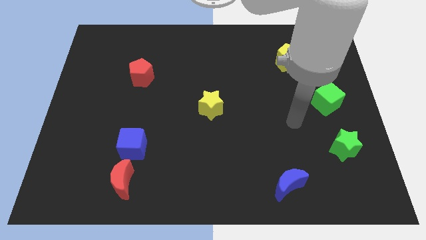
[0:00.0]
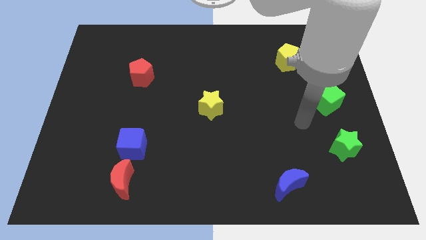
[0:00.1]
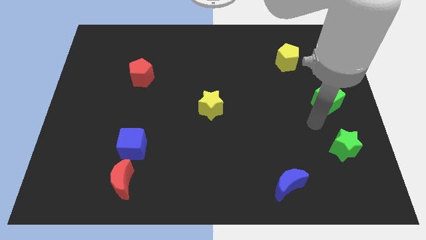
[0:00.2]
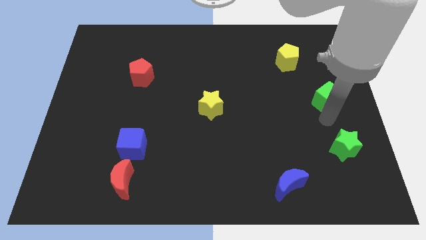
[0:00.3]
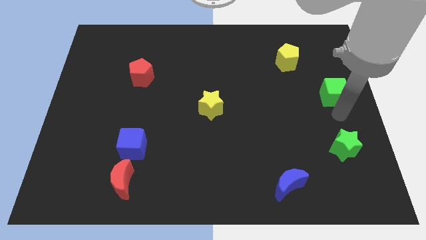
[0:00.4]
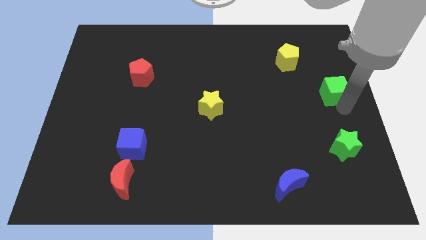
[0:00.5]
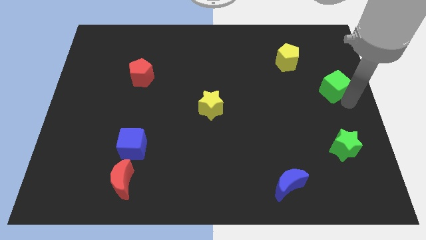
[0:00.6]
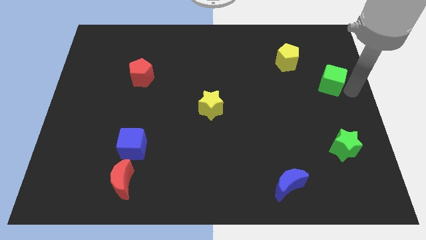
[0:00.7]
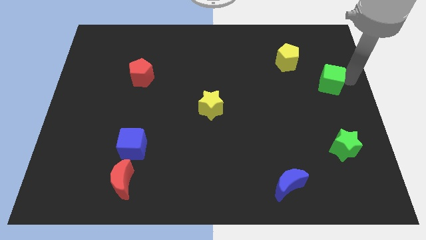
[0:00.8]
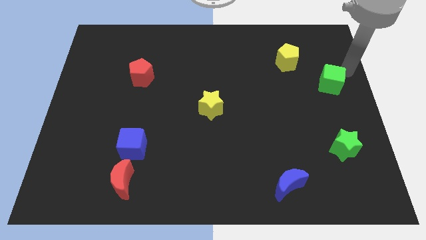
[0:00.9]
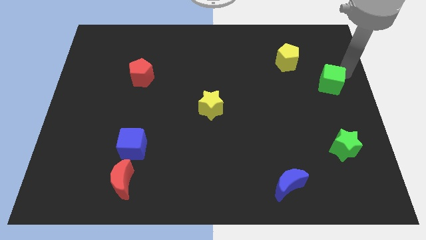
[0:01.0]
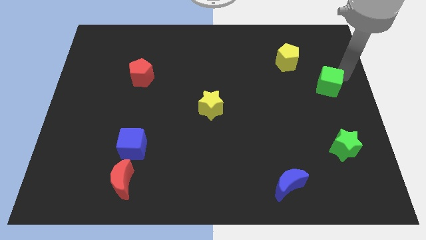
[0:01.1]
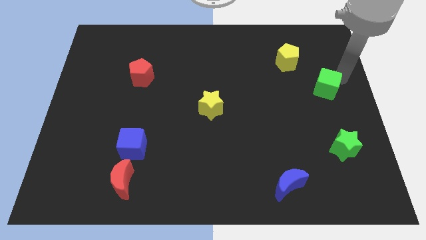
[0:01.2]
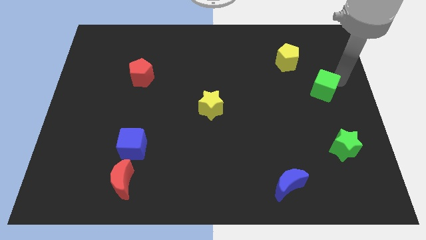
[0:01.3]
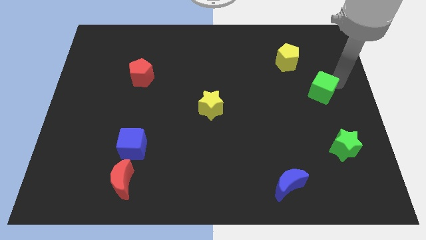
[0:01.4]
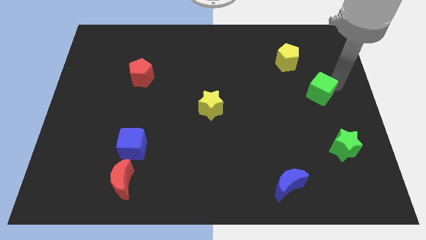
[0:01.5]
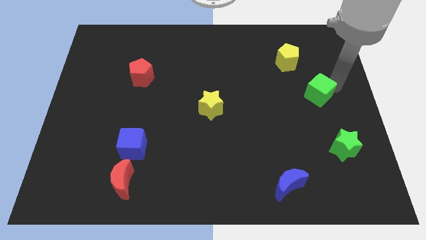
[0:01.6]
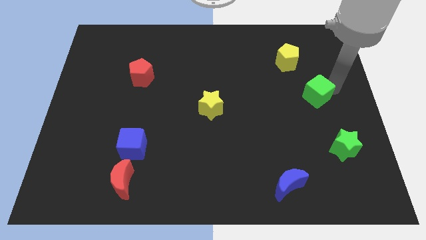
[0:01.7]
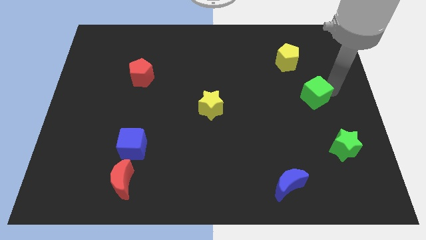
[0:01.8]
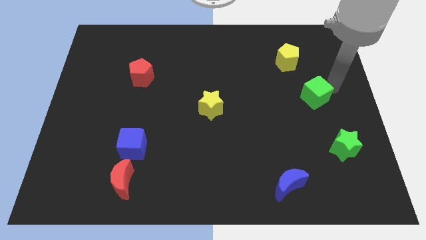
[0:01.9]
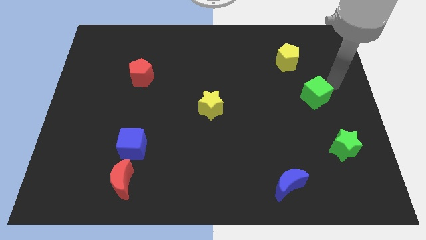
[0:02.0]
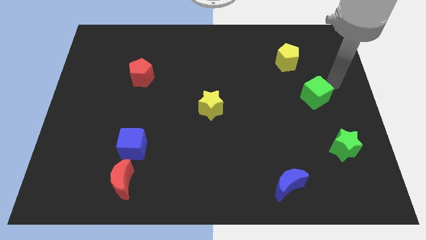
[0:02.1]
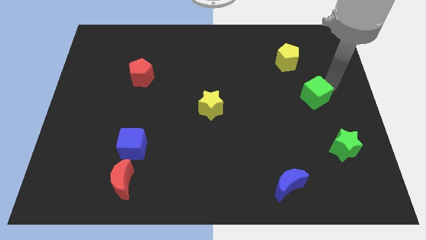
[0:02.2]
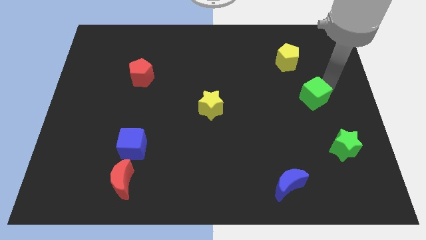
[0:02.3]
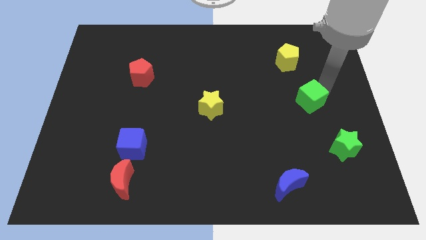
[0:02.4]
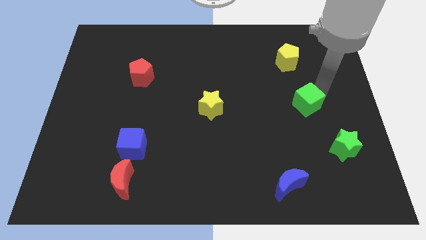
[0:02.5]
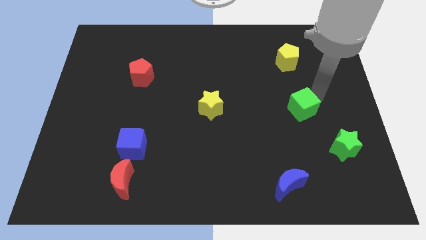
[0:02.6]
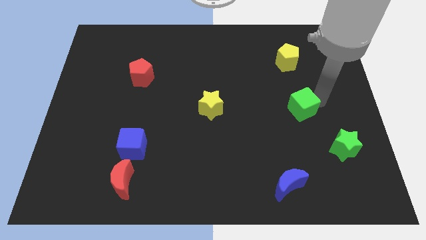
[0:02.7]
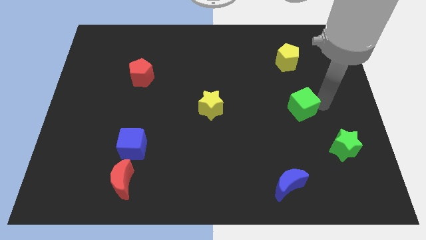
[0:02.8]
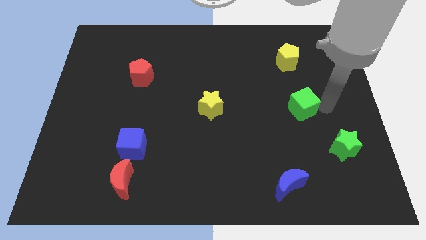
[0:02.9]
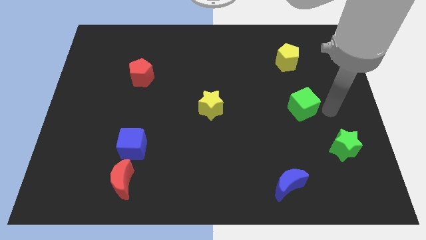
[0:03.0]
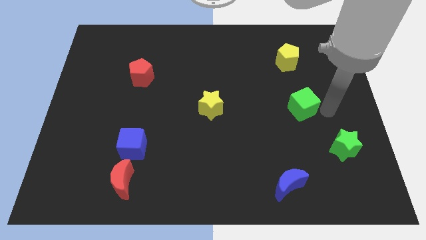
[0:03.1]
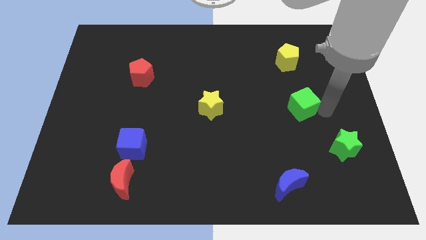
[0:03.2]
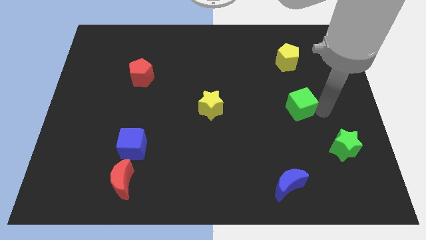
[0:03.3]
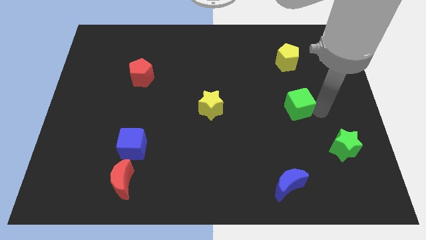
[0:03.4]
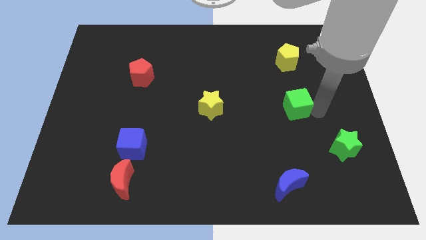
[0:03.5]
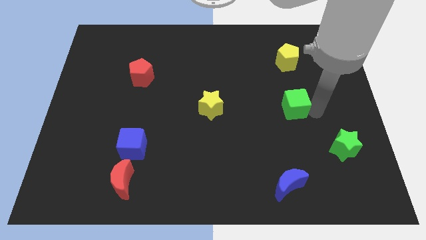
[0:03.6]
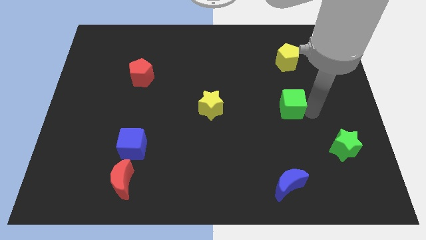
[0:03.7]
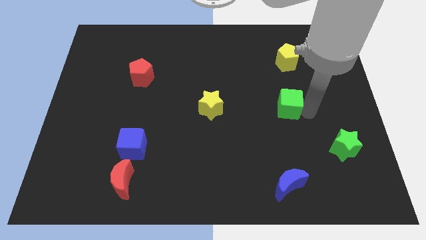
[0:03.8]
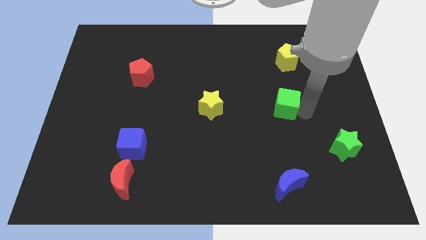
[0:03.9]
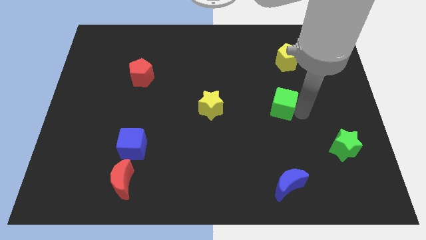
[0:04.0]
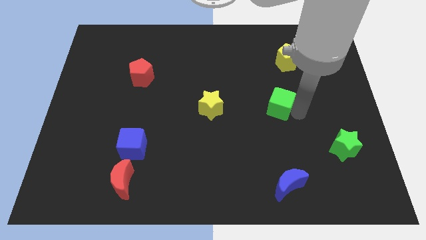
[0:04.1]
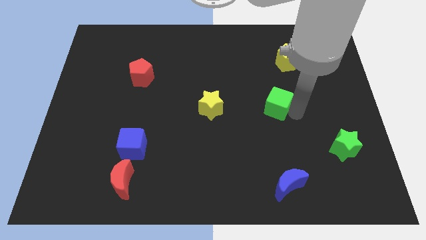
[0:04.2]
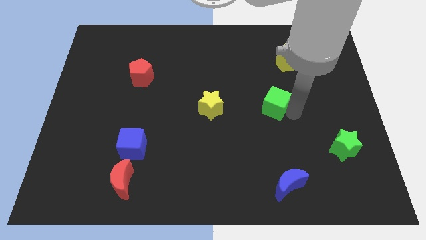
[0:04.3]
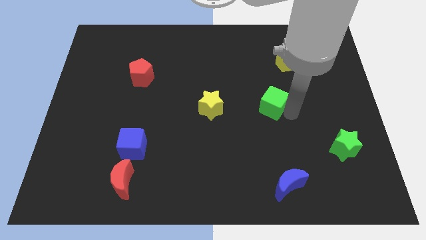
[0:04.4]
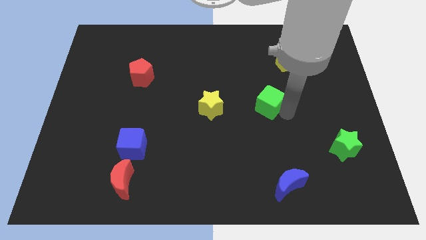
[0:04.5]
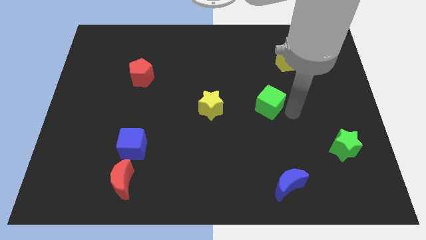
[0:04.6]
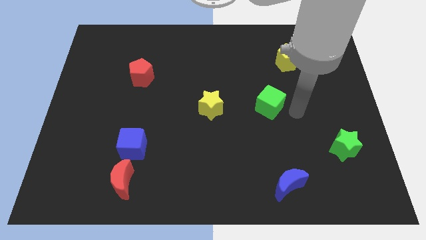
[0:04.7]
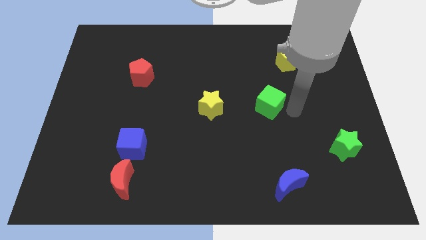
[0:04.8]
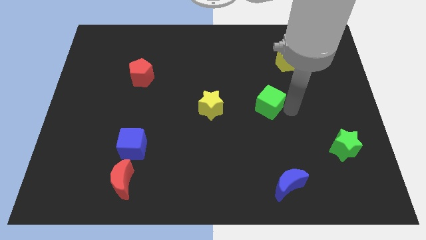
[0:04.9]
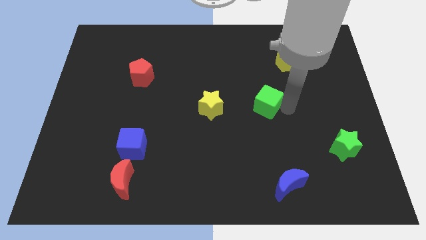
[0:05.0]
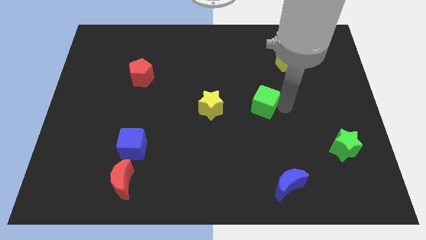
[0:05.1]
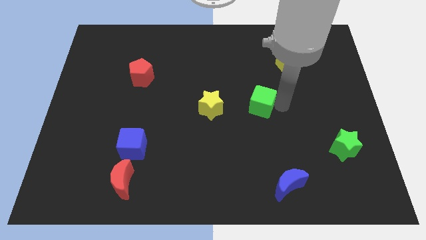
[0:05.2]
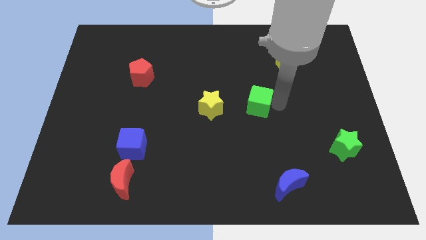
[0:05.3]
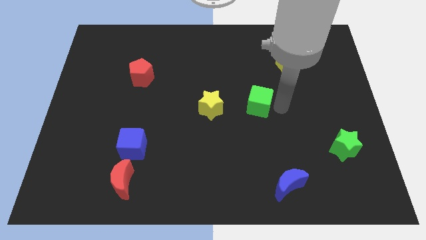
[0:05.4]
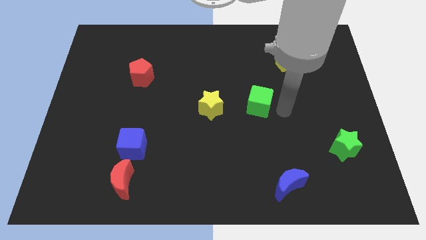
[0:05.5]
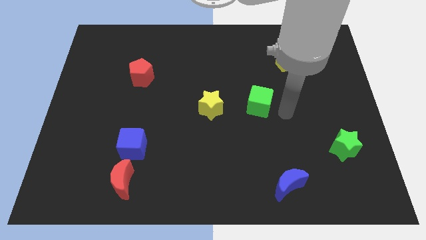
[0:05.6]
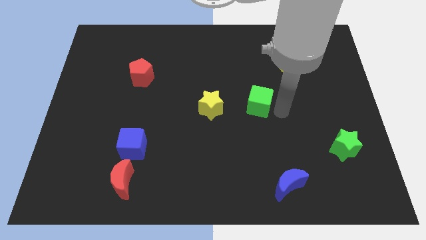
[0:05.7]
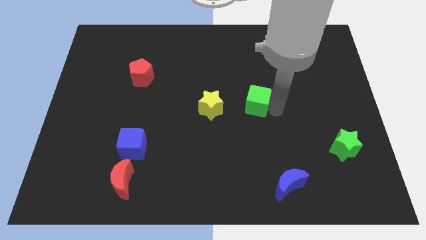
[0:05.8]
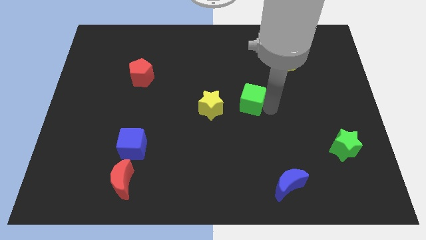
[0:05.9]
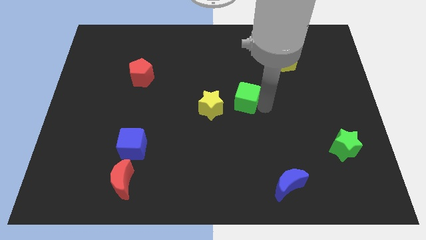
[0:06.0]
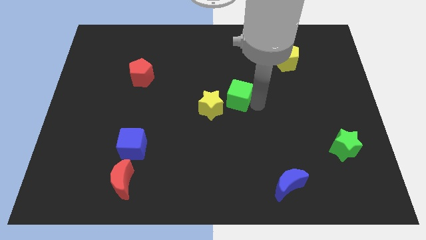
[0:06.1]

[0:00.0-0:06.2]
move the green cube left

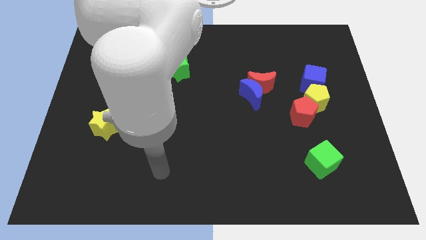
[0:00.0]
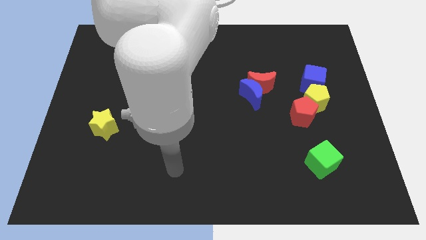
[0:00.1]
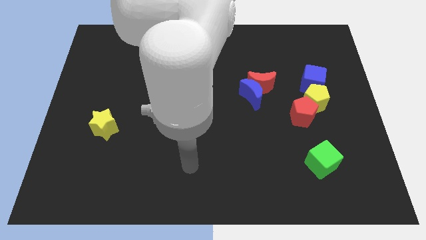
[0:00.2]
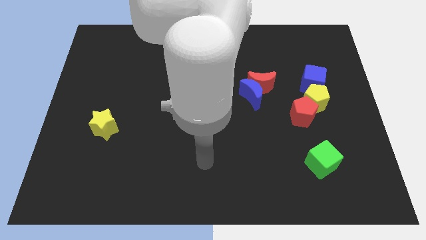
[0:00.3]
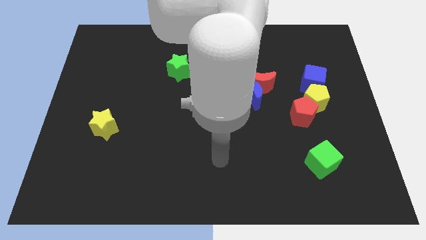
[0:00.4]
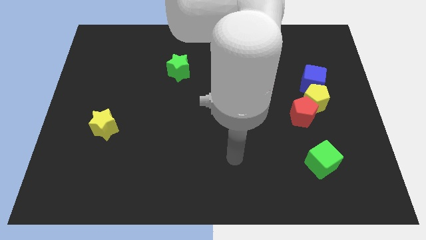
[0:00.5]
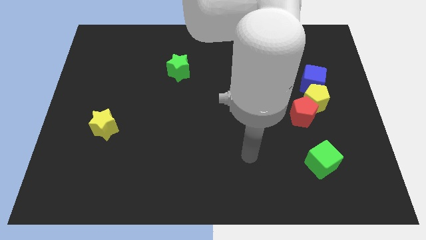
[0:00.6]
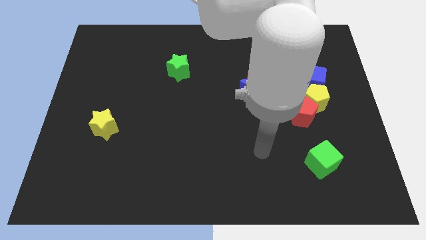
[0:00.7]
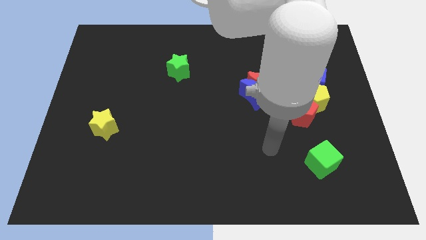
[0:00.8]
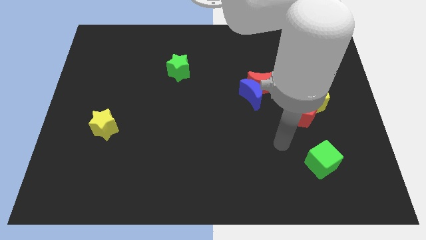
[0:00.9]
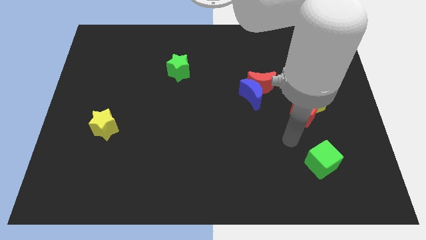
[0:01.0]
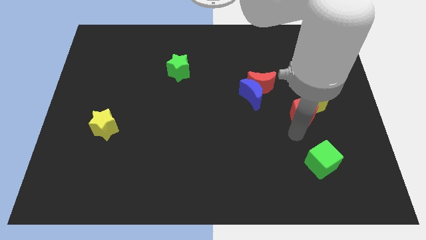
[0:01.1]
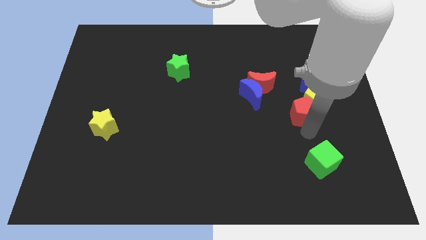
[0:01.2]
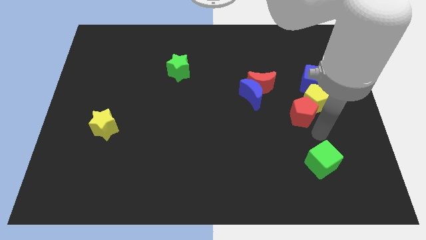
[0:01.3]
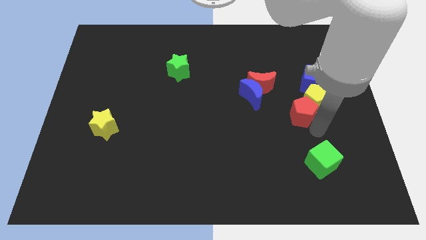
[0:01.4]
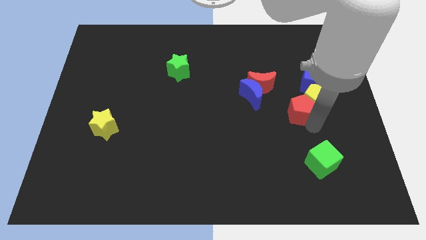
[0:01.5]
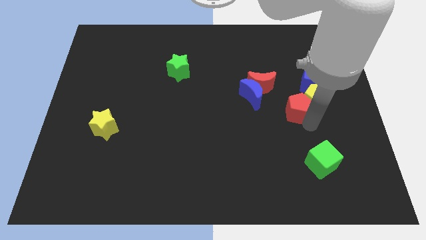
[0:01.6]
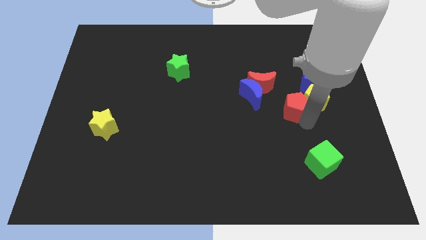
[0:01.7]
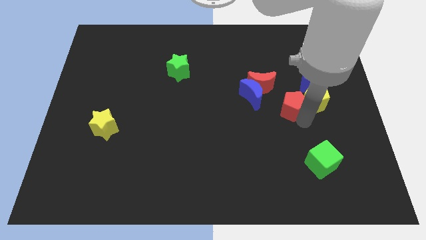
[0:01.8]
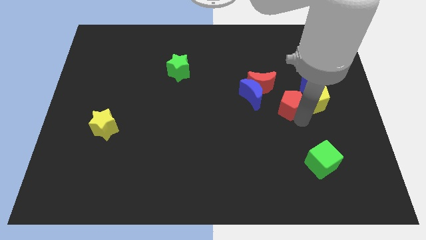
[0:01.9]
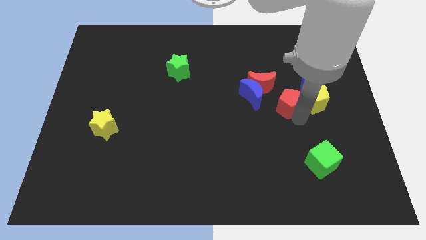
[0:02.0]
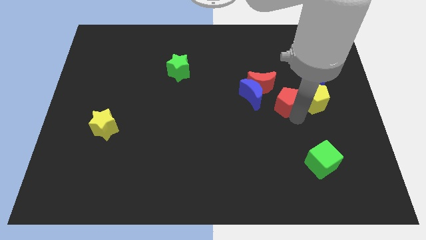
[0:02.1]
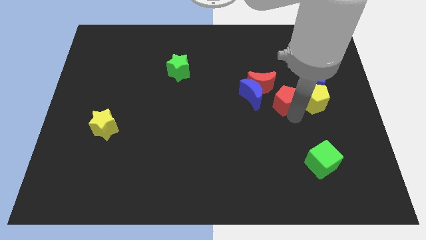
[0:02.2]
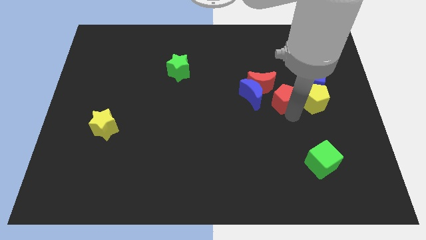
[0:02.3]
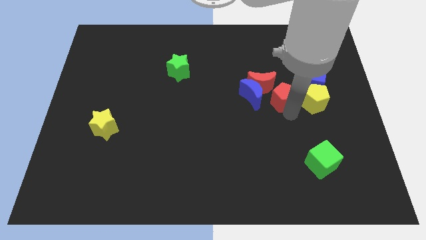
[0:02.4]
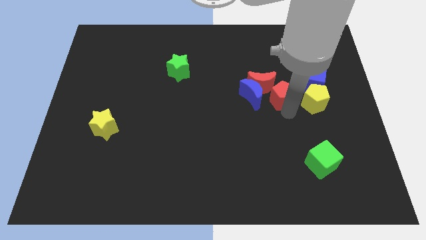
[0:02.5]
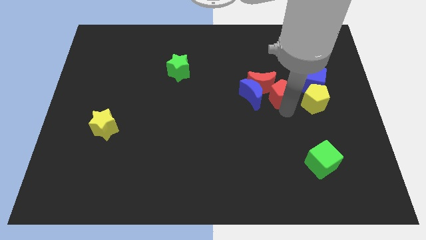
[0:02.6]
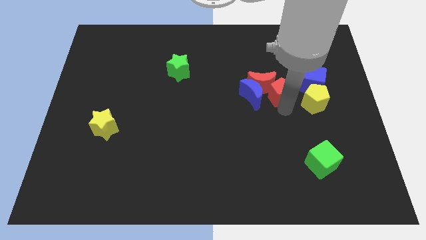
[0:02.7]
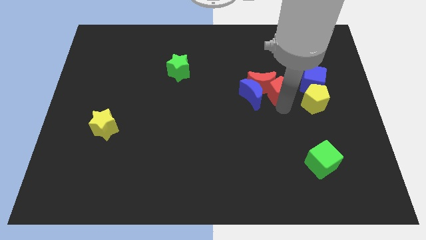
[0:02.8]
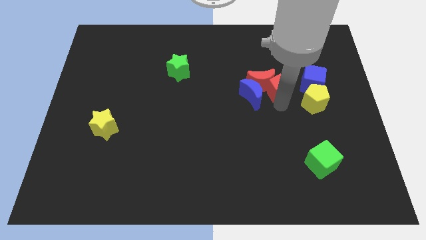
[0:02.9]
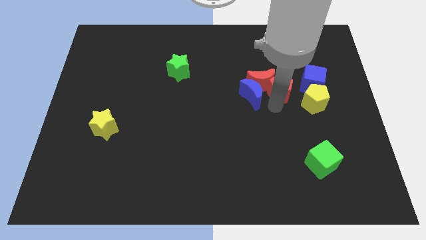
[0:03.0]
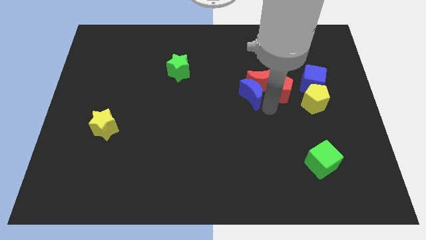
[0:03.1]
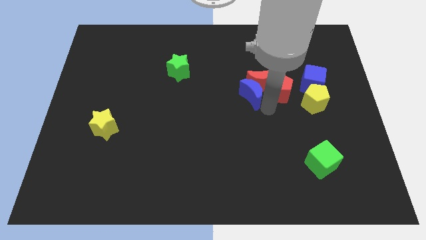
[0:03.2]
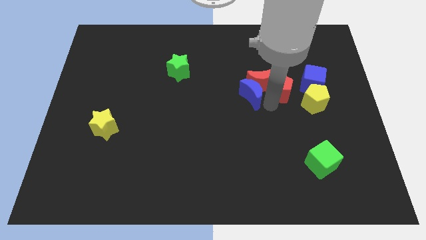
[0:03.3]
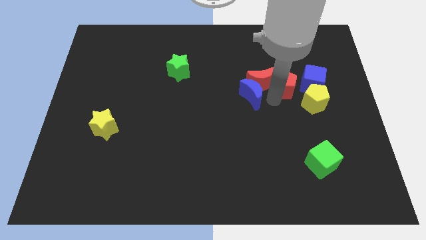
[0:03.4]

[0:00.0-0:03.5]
slightly push the red pentagon up
